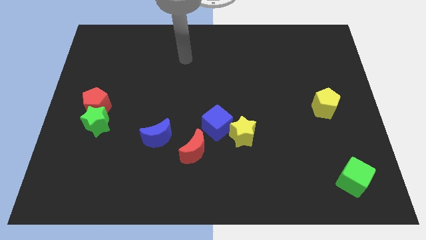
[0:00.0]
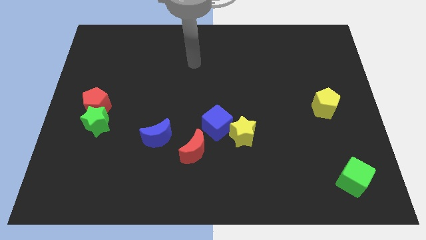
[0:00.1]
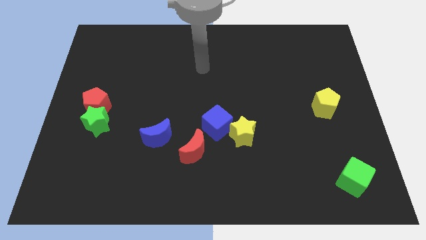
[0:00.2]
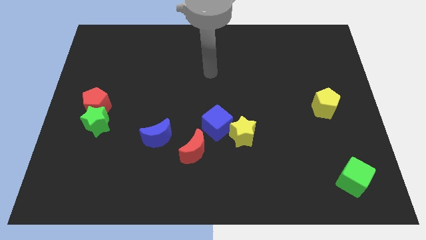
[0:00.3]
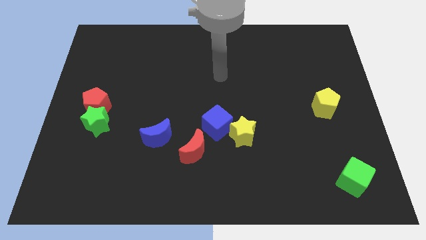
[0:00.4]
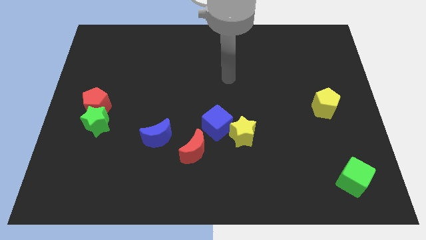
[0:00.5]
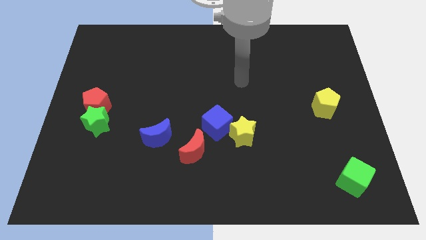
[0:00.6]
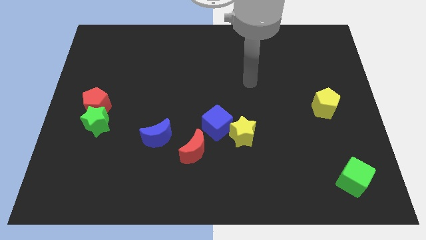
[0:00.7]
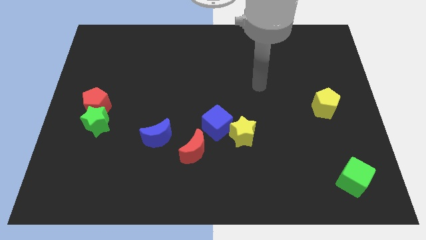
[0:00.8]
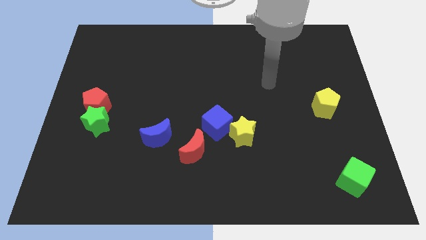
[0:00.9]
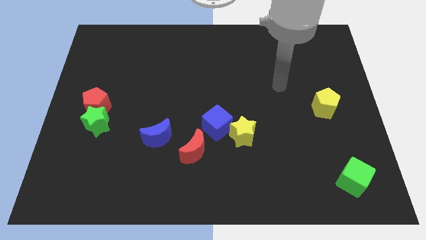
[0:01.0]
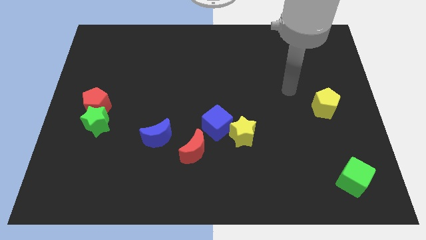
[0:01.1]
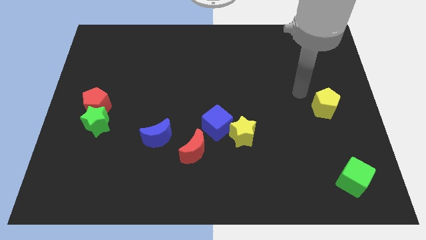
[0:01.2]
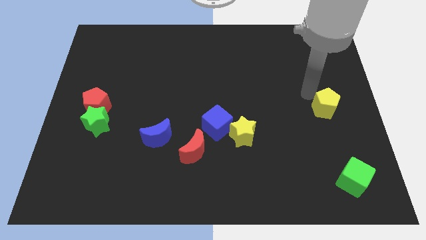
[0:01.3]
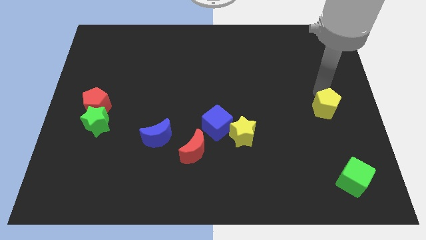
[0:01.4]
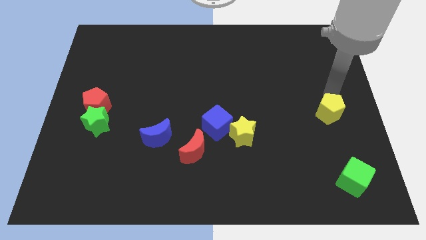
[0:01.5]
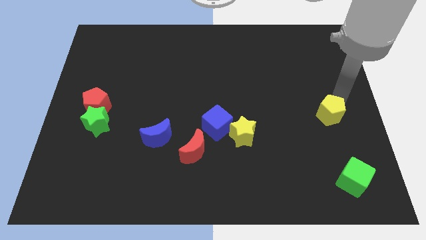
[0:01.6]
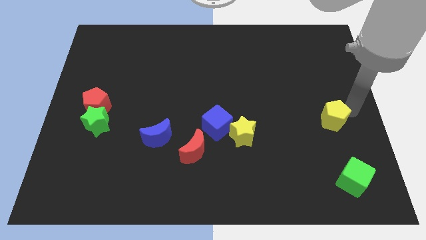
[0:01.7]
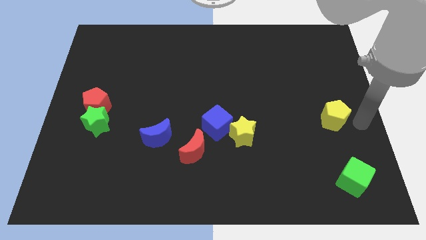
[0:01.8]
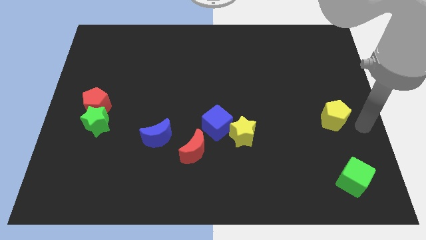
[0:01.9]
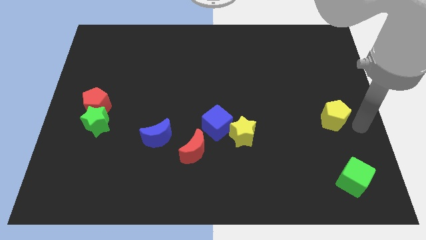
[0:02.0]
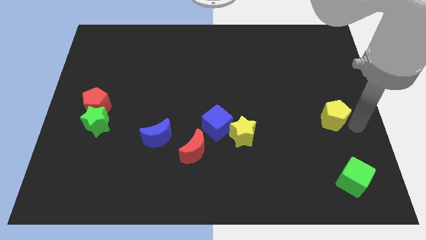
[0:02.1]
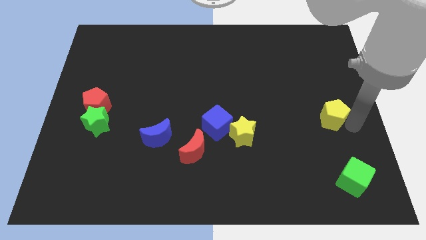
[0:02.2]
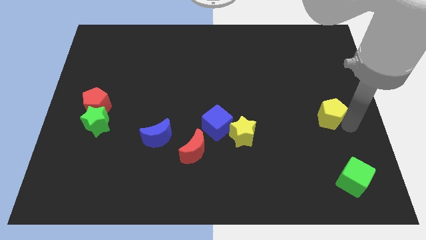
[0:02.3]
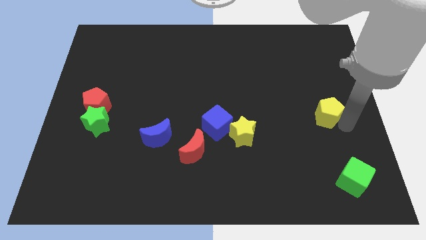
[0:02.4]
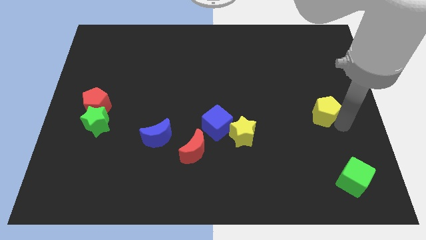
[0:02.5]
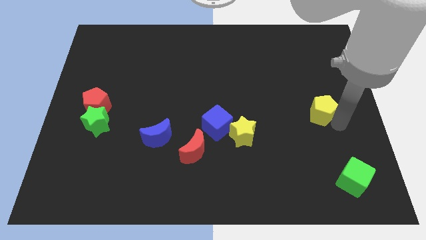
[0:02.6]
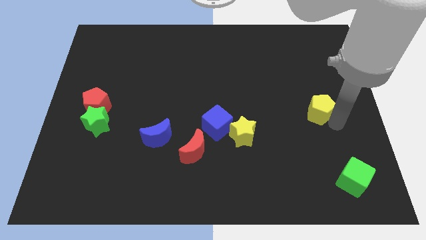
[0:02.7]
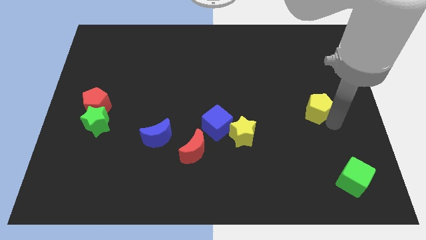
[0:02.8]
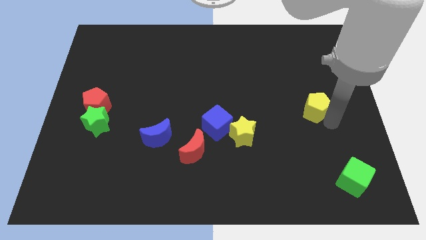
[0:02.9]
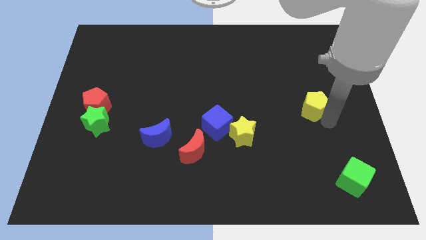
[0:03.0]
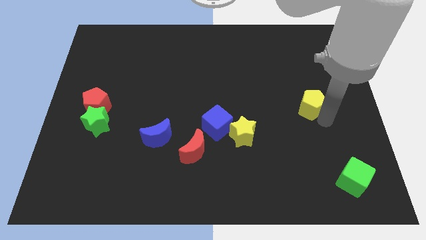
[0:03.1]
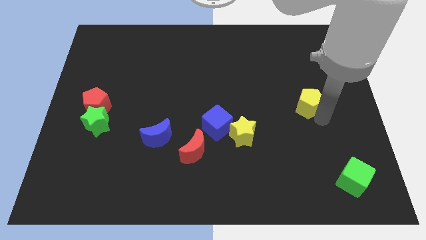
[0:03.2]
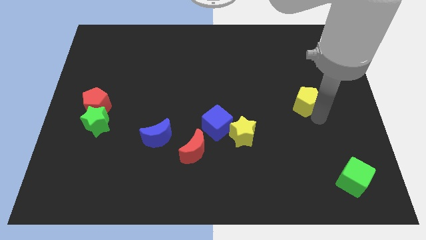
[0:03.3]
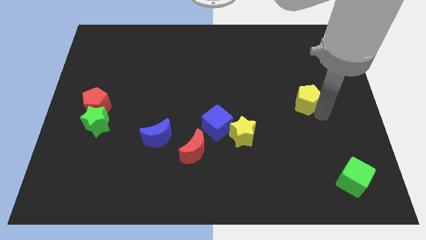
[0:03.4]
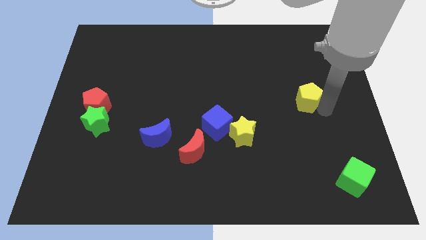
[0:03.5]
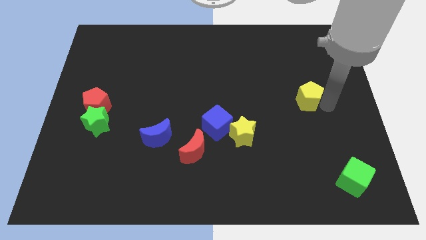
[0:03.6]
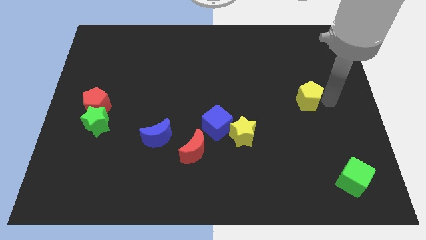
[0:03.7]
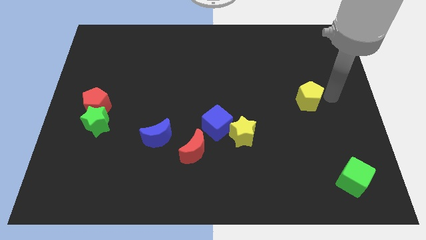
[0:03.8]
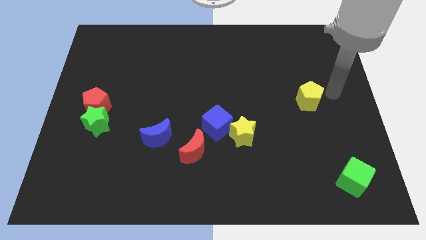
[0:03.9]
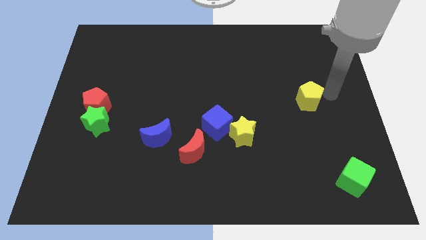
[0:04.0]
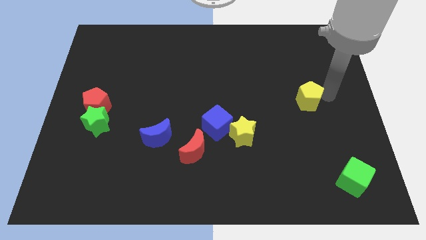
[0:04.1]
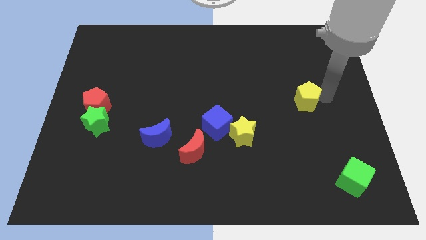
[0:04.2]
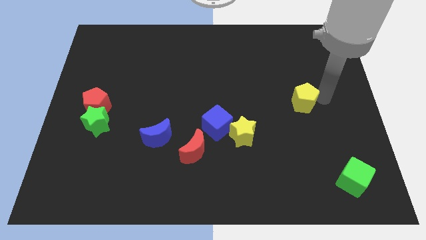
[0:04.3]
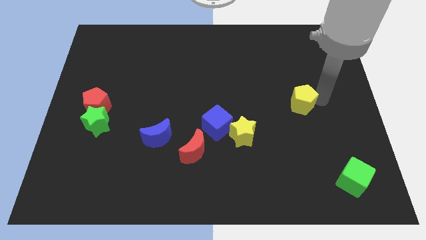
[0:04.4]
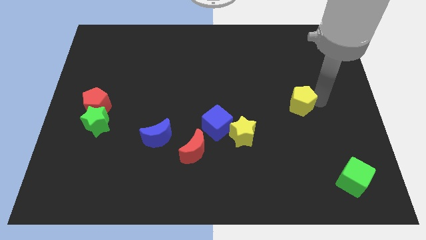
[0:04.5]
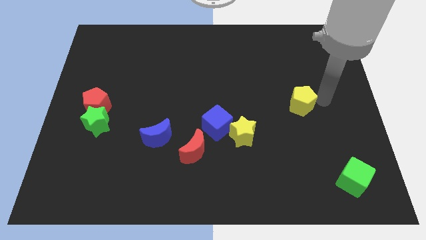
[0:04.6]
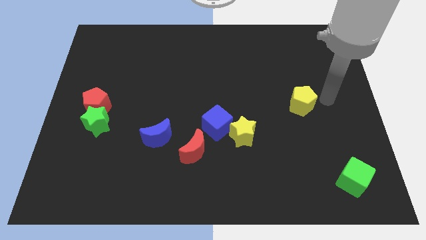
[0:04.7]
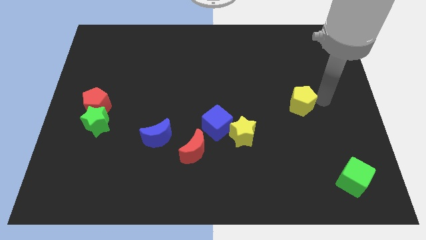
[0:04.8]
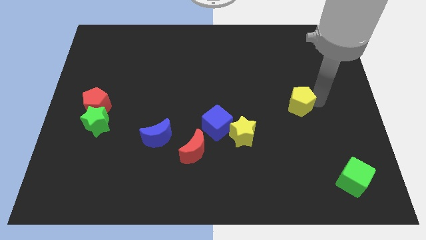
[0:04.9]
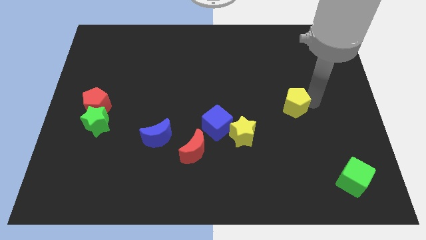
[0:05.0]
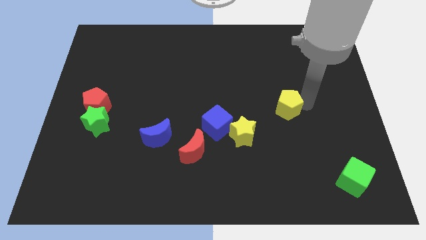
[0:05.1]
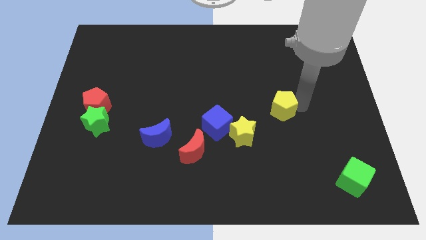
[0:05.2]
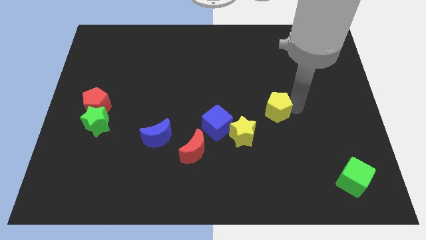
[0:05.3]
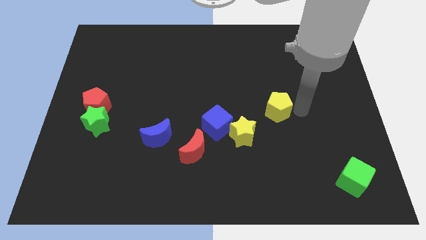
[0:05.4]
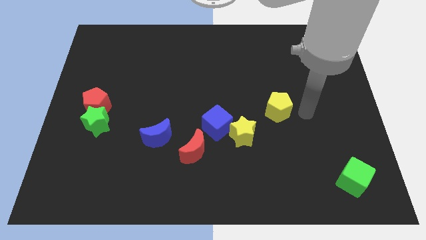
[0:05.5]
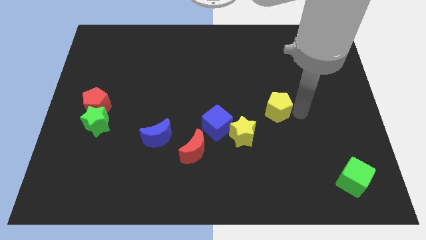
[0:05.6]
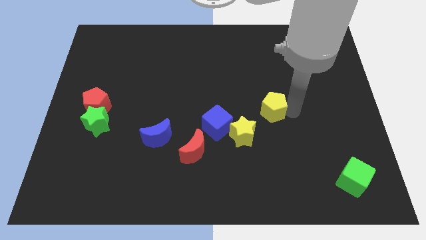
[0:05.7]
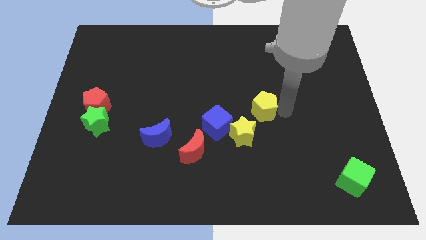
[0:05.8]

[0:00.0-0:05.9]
push the yellow pentagon to the center

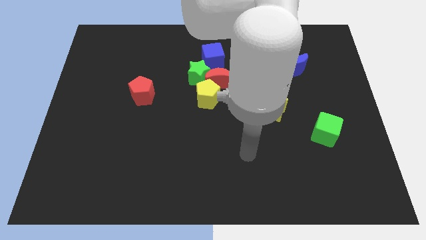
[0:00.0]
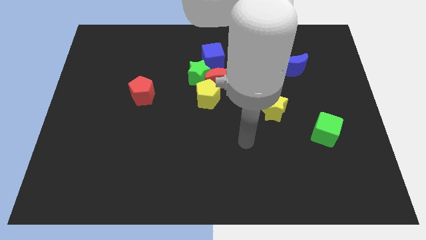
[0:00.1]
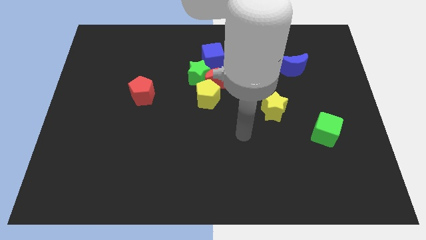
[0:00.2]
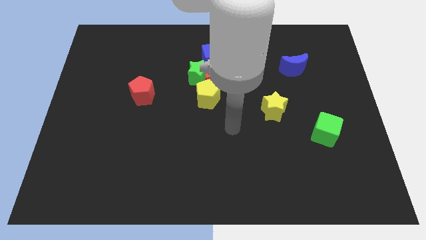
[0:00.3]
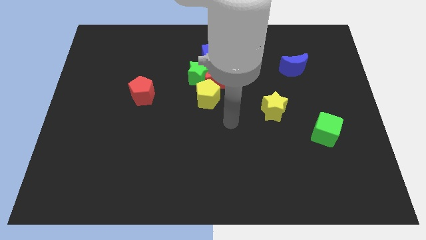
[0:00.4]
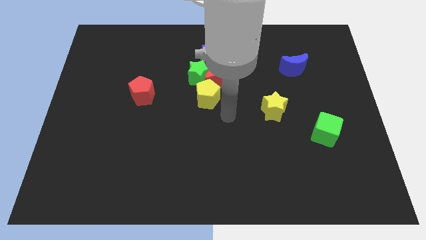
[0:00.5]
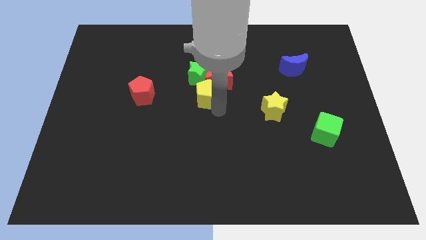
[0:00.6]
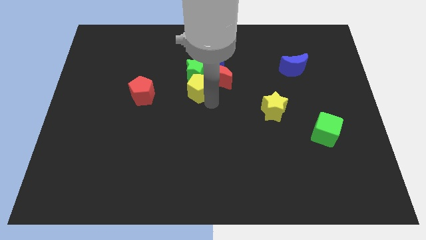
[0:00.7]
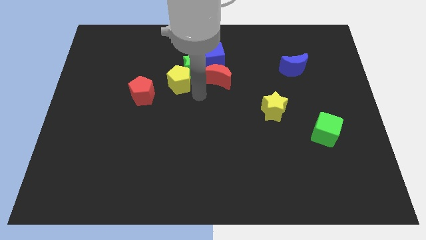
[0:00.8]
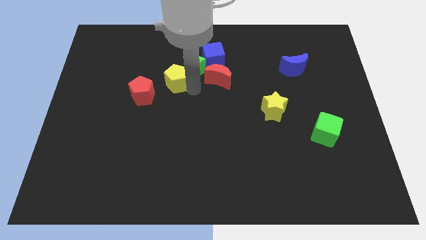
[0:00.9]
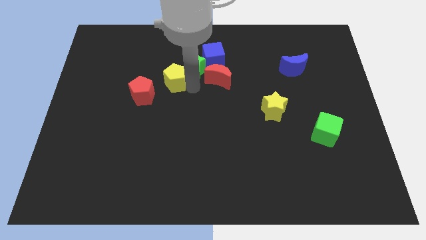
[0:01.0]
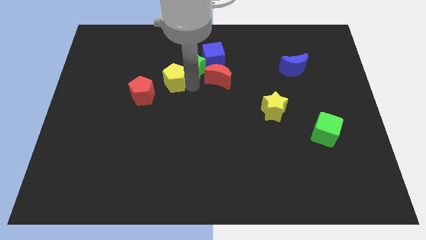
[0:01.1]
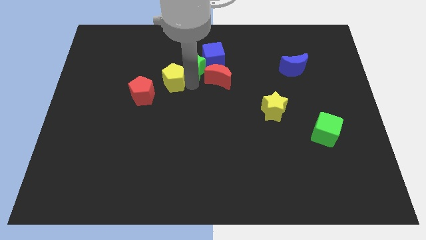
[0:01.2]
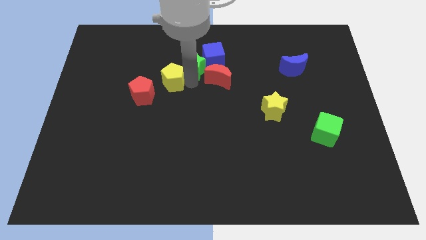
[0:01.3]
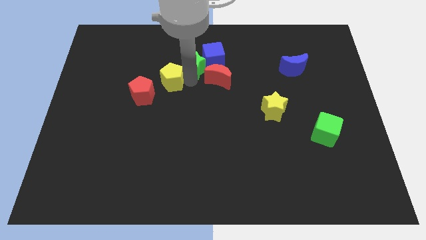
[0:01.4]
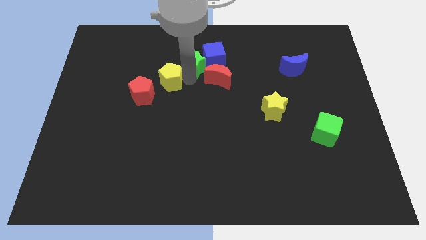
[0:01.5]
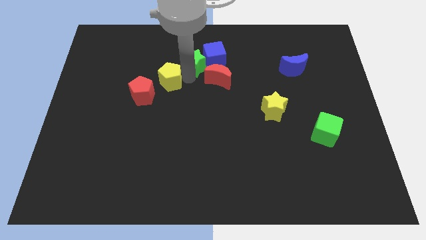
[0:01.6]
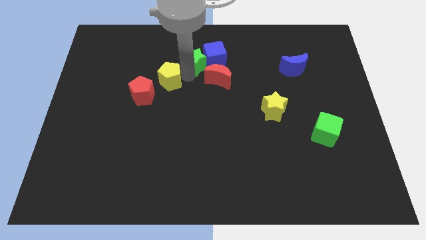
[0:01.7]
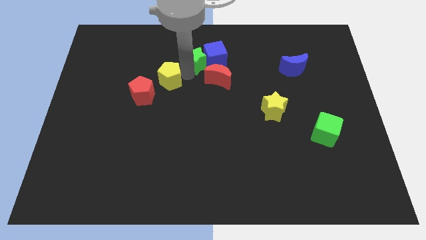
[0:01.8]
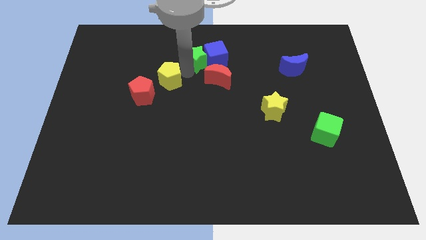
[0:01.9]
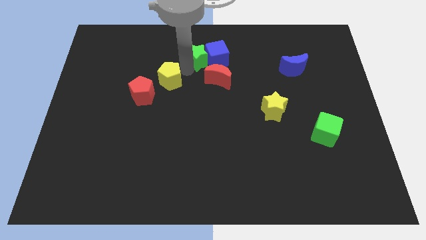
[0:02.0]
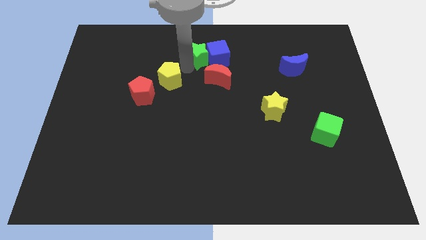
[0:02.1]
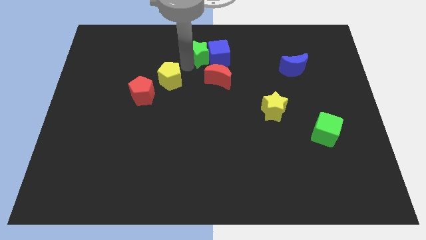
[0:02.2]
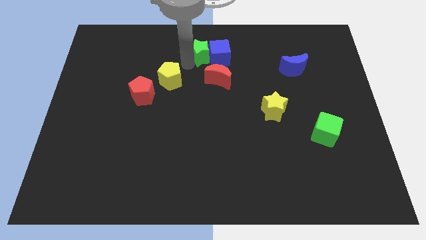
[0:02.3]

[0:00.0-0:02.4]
slide the green star to the top side
